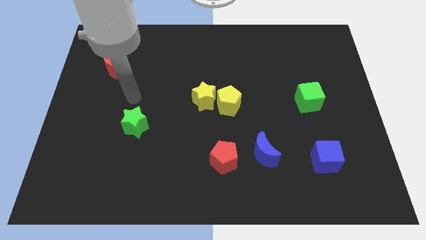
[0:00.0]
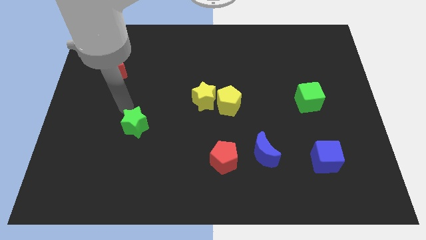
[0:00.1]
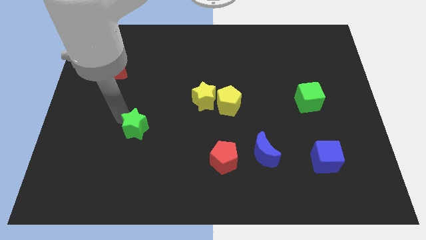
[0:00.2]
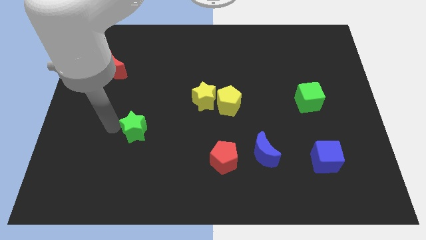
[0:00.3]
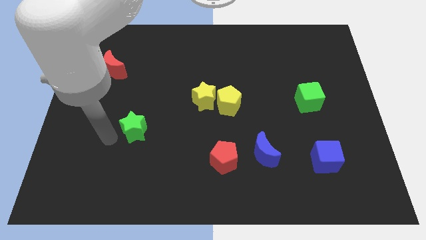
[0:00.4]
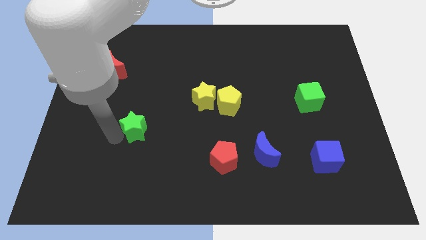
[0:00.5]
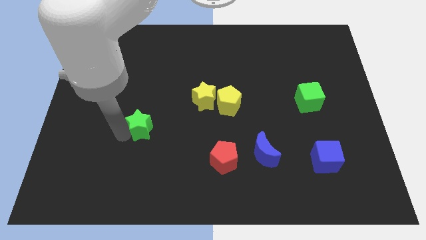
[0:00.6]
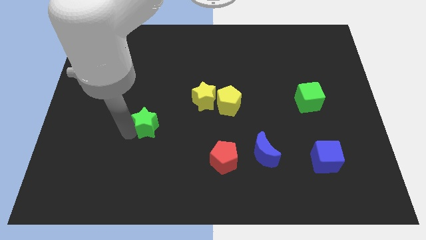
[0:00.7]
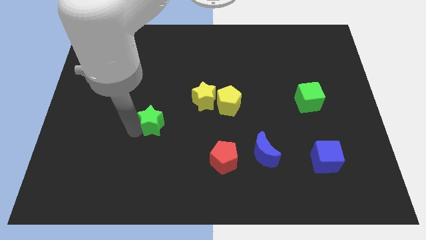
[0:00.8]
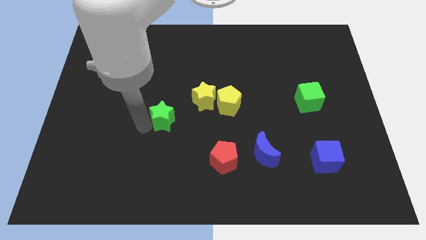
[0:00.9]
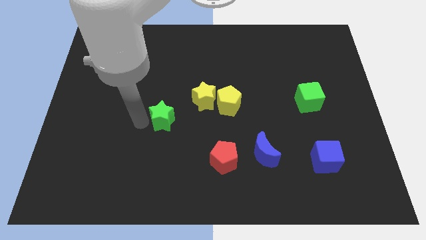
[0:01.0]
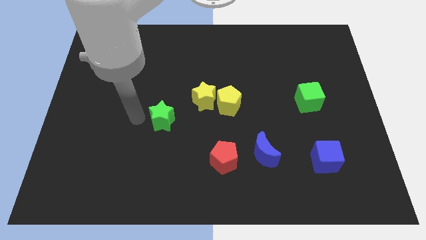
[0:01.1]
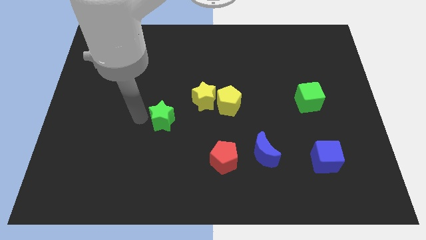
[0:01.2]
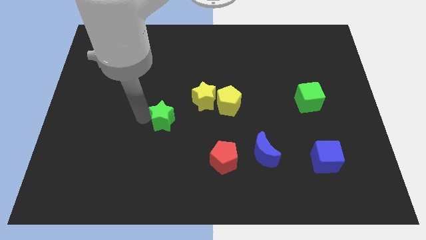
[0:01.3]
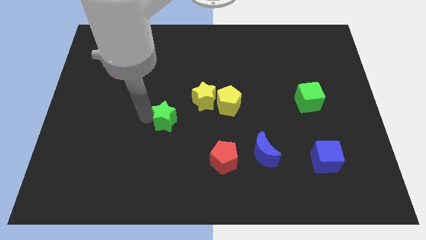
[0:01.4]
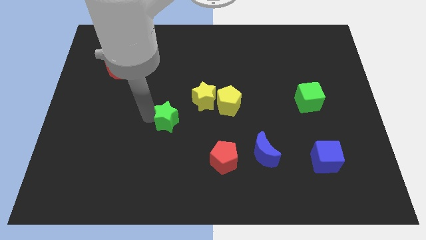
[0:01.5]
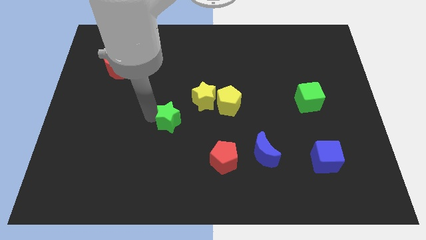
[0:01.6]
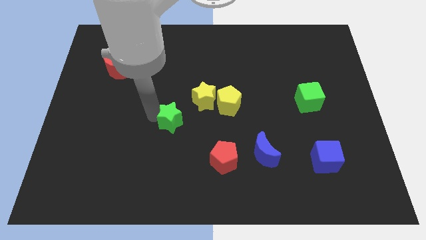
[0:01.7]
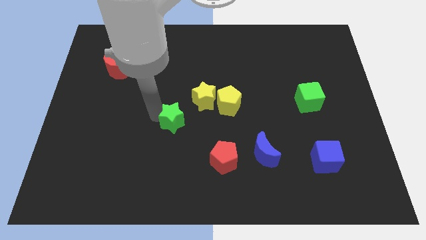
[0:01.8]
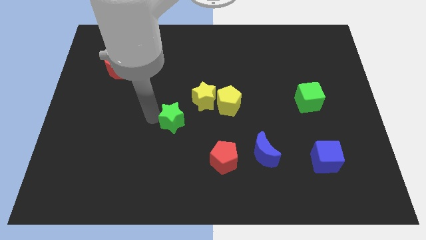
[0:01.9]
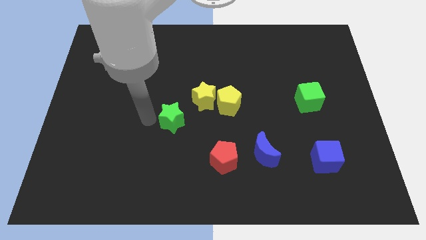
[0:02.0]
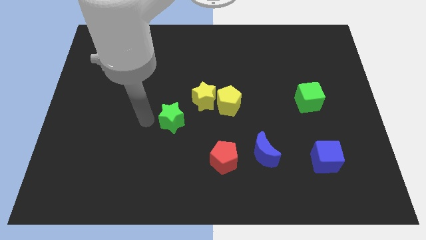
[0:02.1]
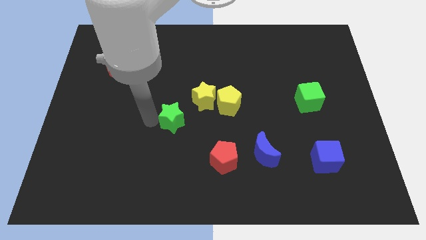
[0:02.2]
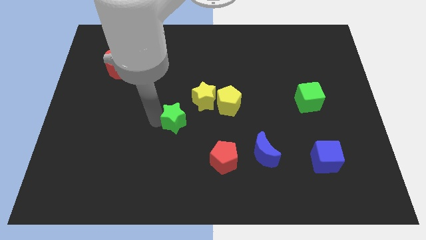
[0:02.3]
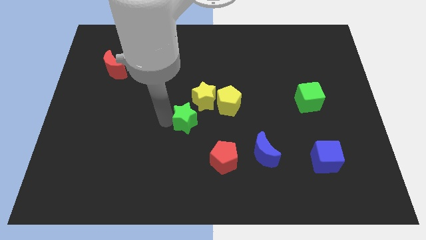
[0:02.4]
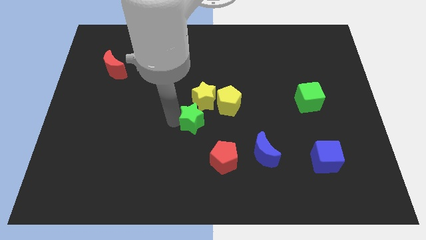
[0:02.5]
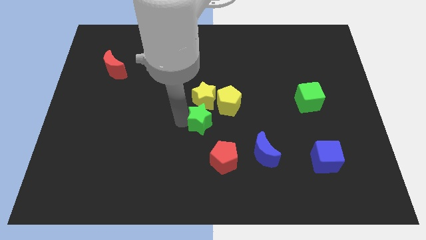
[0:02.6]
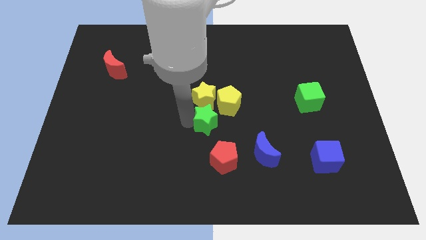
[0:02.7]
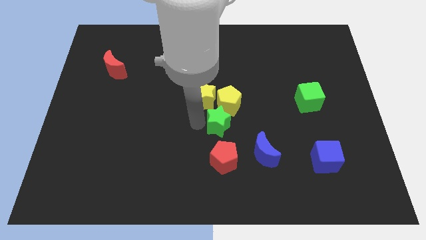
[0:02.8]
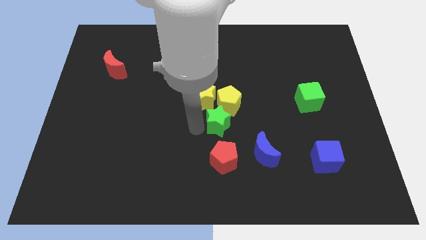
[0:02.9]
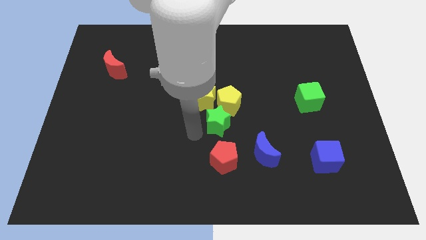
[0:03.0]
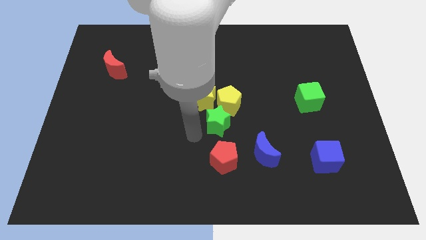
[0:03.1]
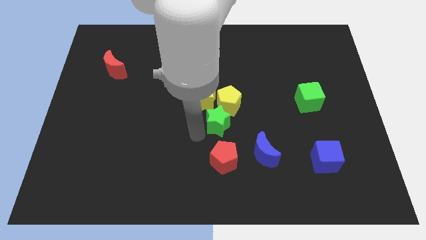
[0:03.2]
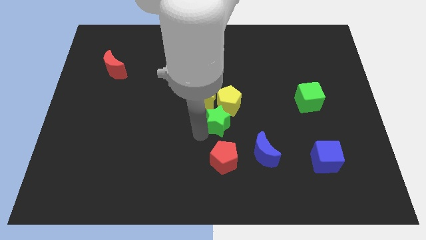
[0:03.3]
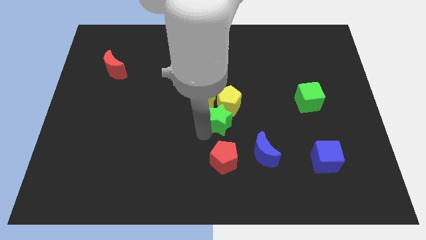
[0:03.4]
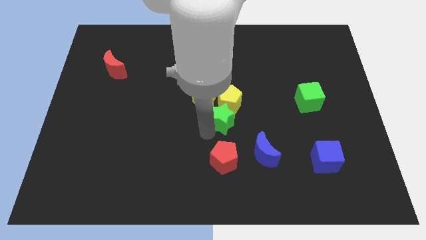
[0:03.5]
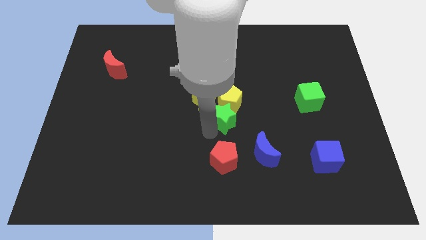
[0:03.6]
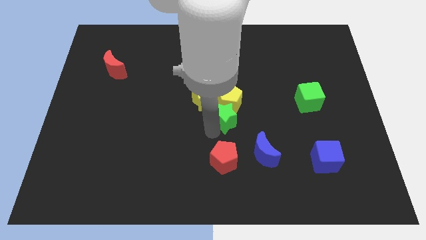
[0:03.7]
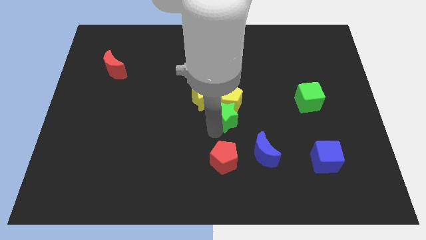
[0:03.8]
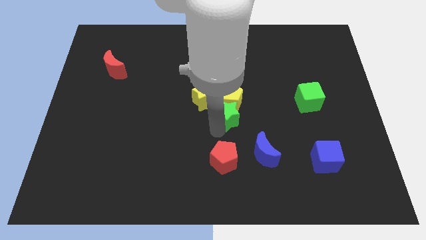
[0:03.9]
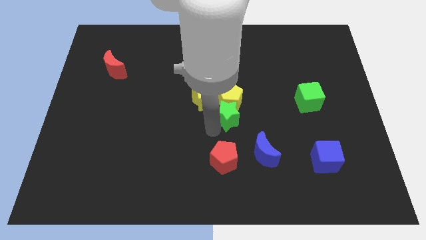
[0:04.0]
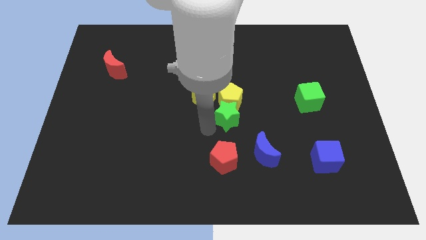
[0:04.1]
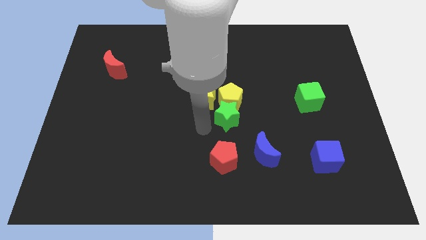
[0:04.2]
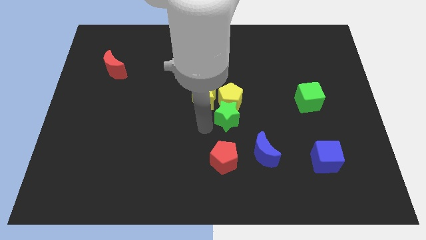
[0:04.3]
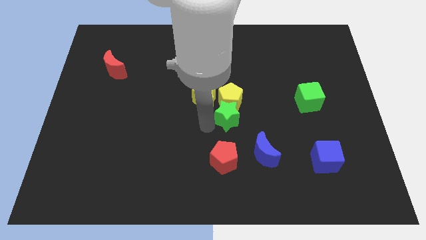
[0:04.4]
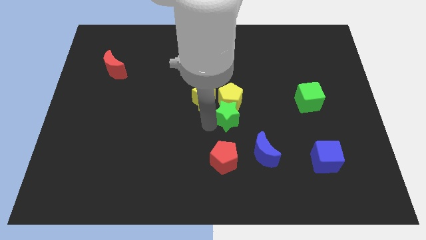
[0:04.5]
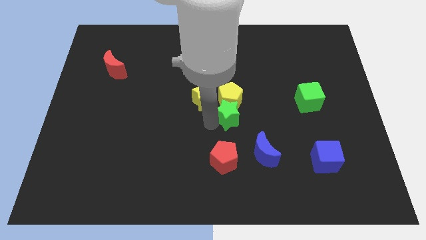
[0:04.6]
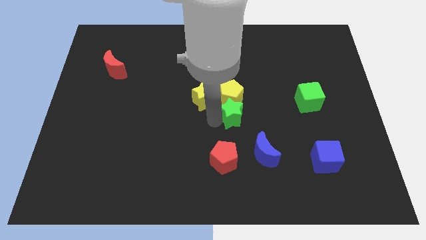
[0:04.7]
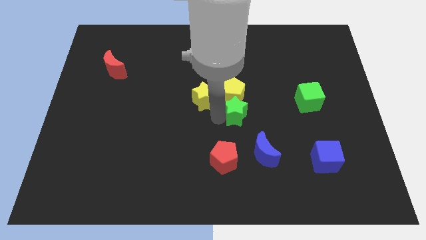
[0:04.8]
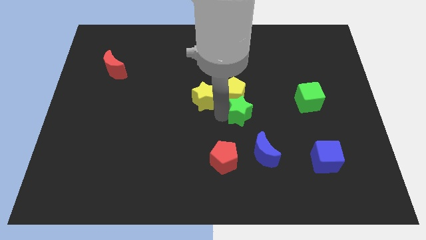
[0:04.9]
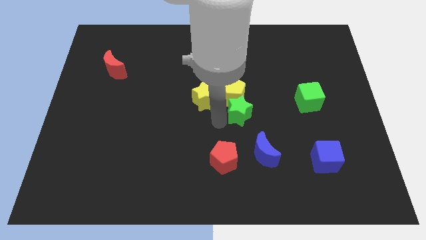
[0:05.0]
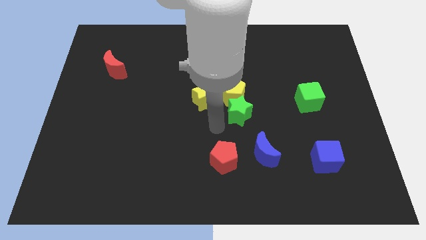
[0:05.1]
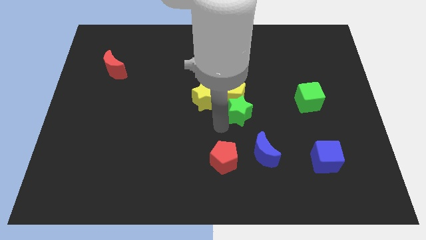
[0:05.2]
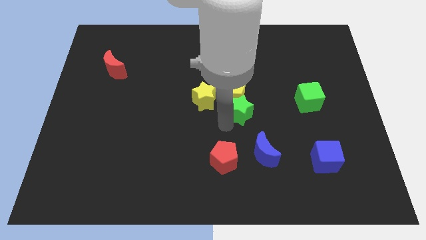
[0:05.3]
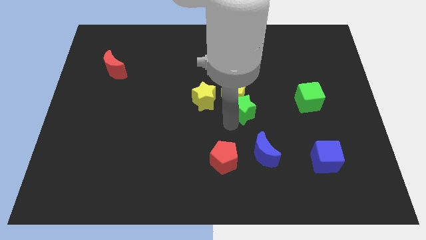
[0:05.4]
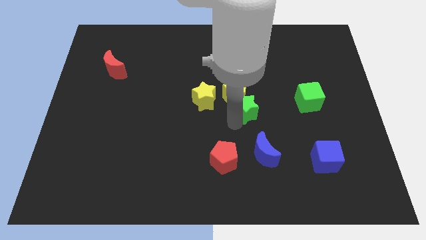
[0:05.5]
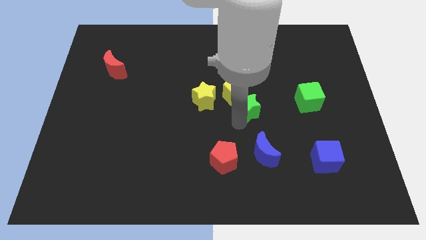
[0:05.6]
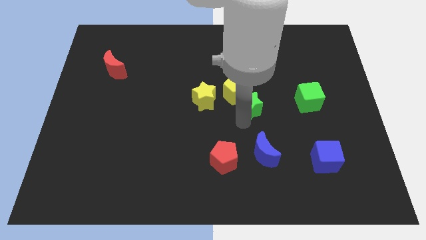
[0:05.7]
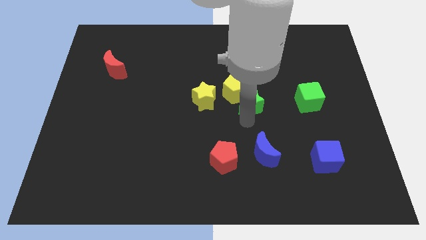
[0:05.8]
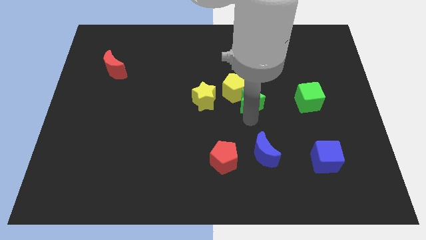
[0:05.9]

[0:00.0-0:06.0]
move the green star just right of the yellow pentagon

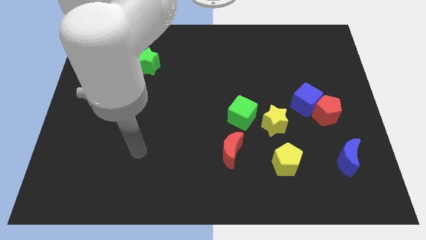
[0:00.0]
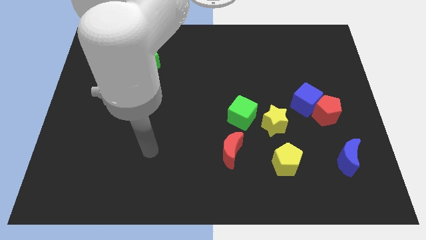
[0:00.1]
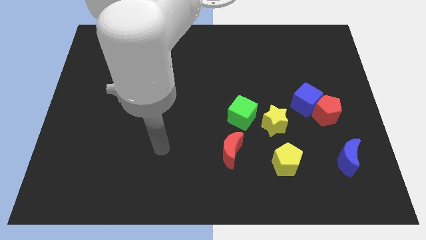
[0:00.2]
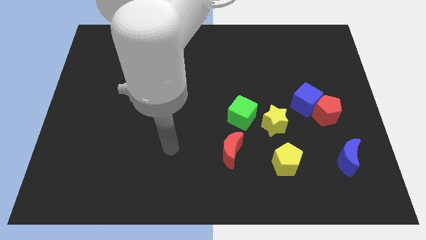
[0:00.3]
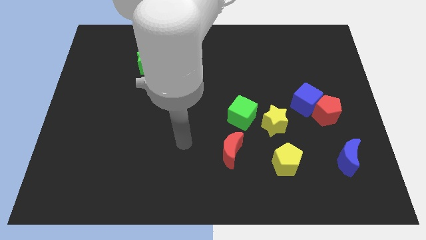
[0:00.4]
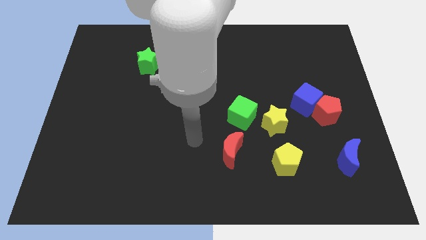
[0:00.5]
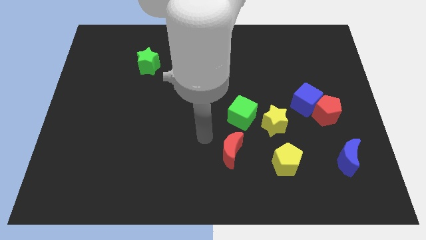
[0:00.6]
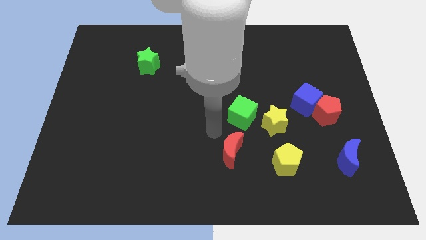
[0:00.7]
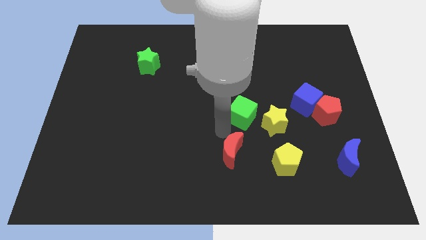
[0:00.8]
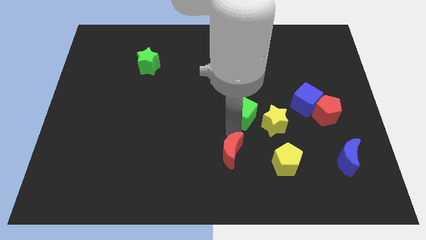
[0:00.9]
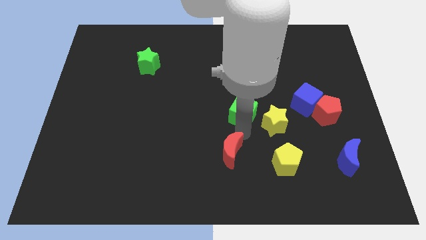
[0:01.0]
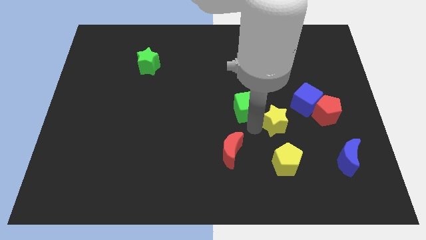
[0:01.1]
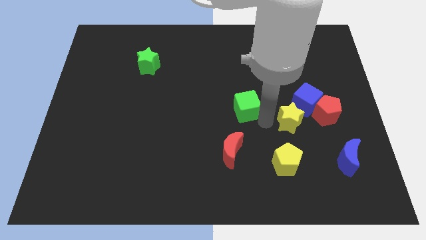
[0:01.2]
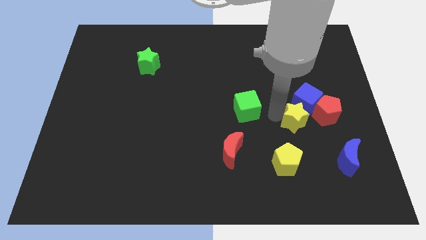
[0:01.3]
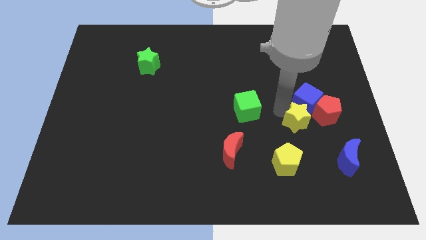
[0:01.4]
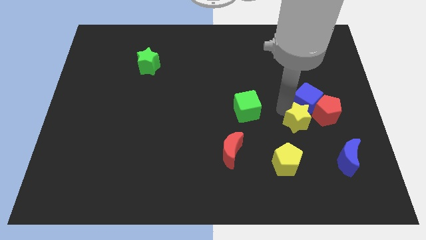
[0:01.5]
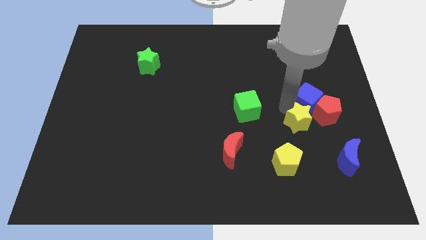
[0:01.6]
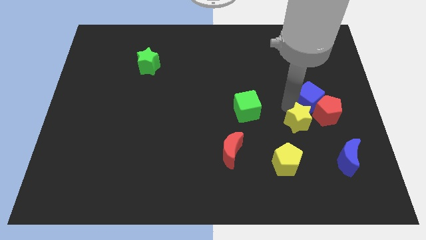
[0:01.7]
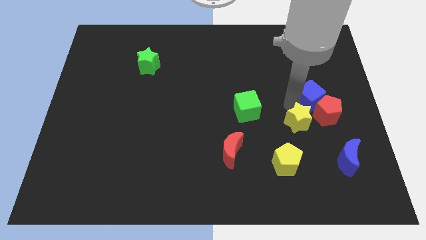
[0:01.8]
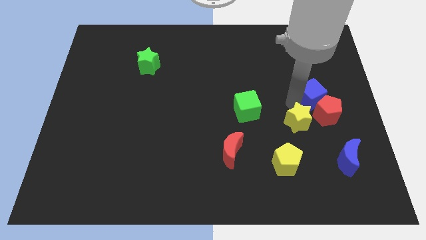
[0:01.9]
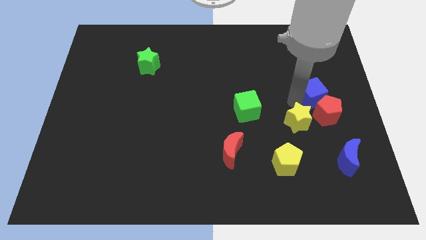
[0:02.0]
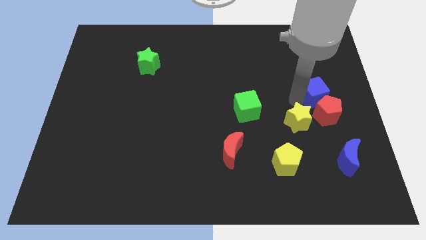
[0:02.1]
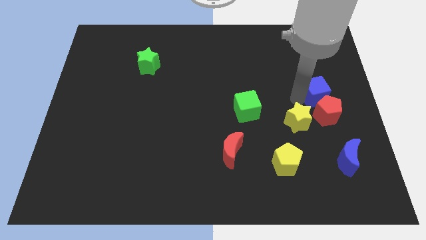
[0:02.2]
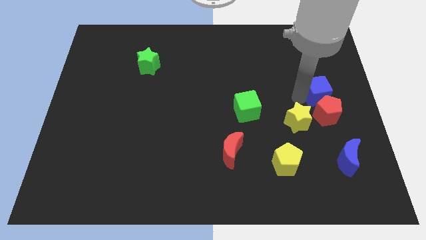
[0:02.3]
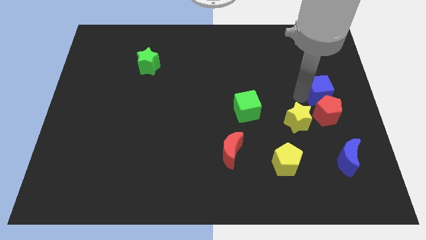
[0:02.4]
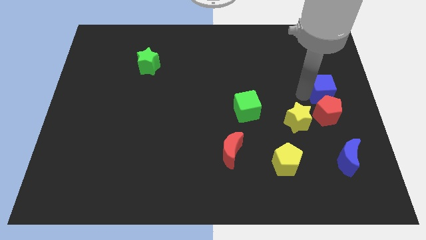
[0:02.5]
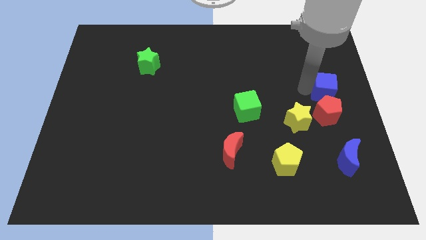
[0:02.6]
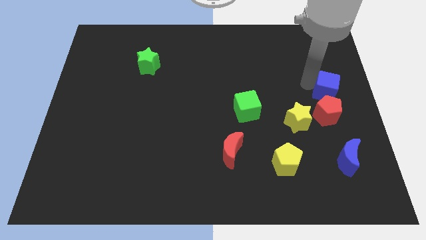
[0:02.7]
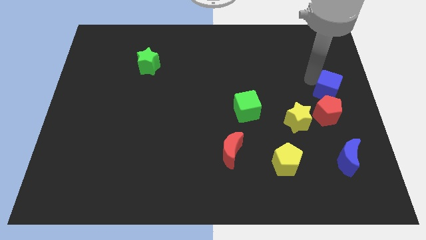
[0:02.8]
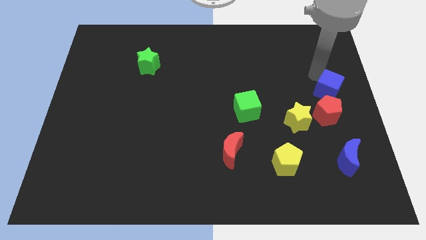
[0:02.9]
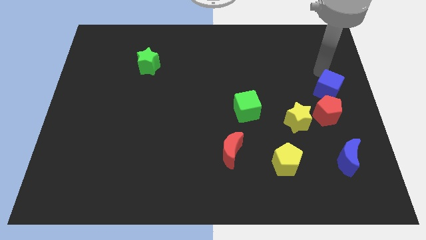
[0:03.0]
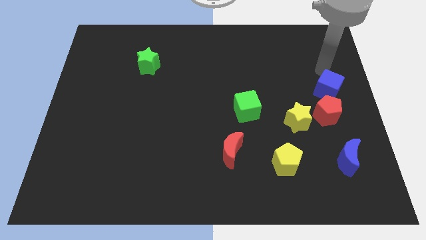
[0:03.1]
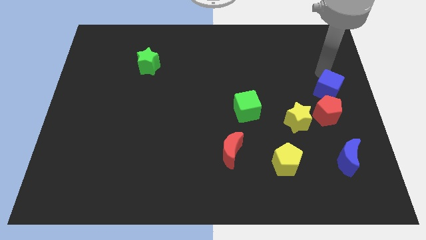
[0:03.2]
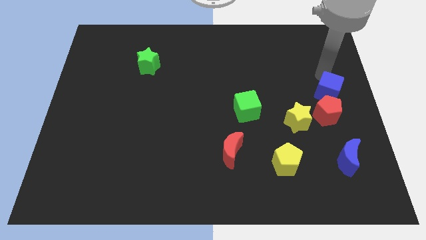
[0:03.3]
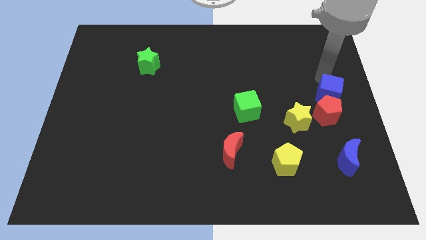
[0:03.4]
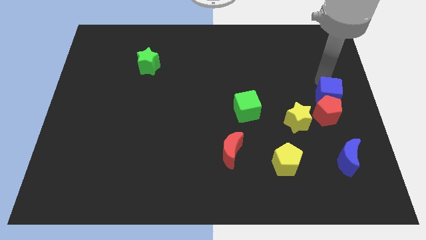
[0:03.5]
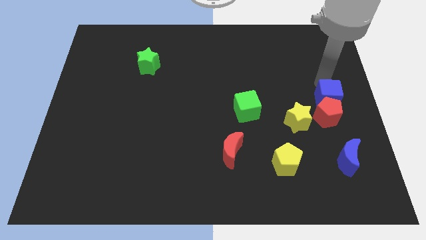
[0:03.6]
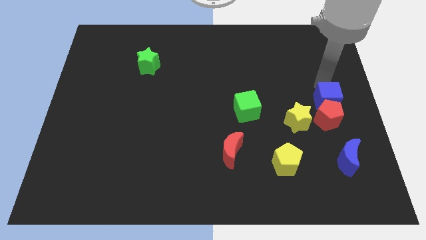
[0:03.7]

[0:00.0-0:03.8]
slide the blue cube above the blue moon
